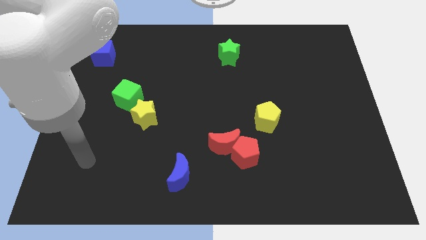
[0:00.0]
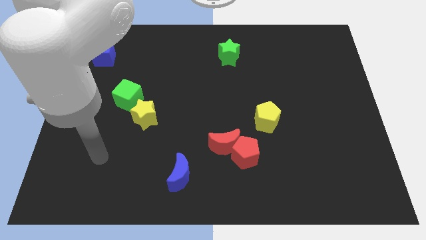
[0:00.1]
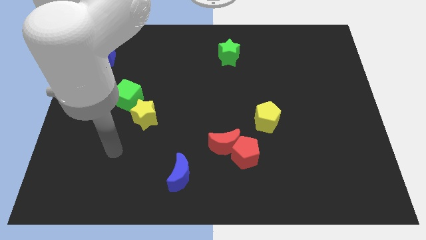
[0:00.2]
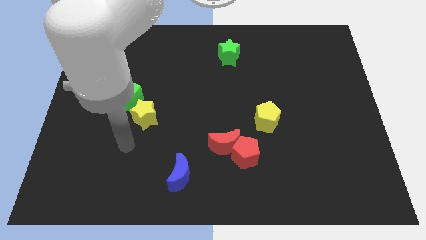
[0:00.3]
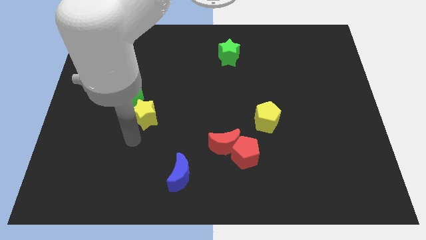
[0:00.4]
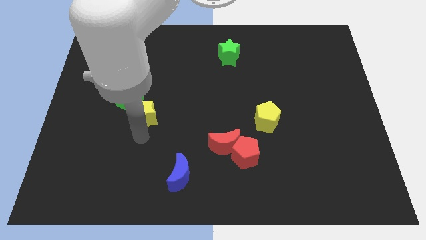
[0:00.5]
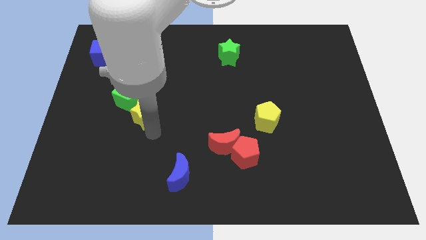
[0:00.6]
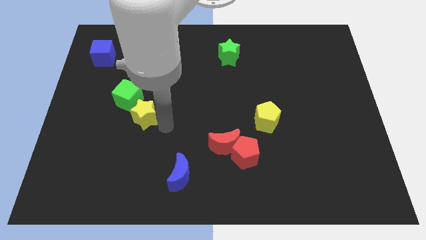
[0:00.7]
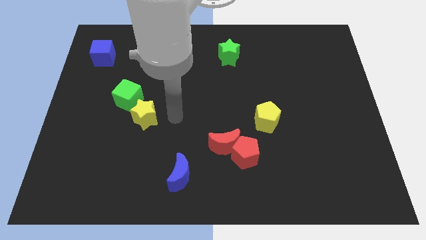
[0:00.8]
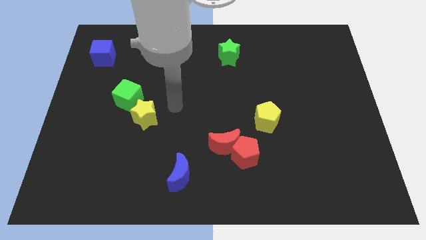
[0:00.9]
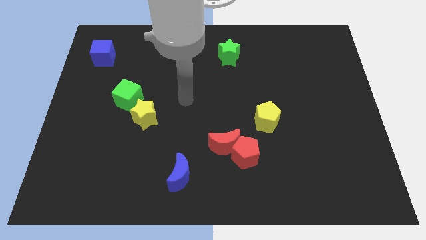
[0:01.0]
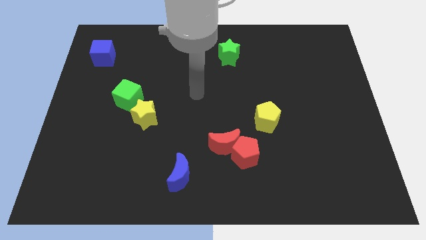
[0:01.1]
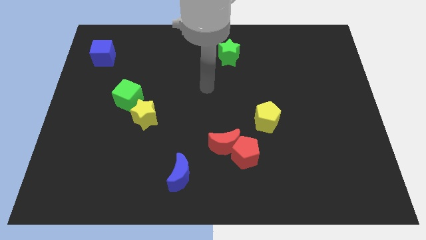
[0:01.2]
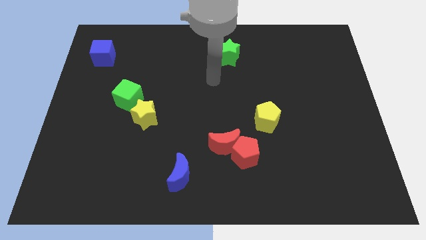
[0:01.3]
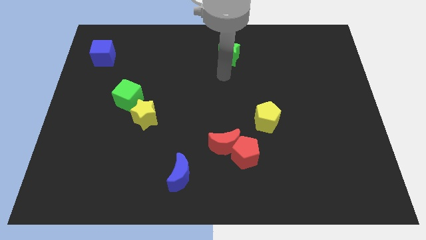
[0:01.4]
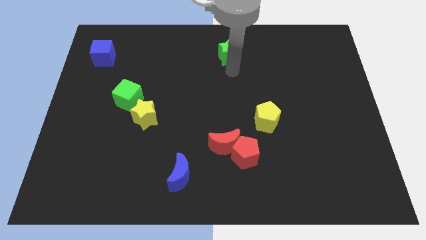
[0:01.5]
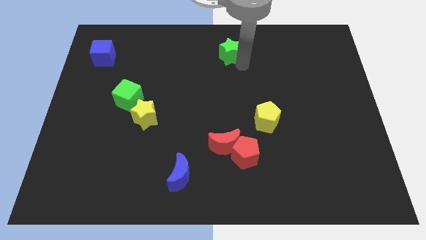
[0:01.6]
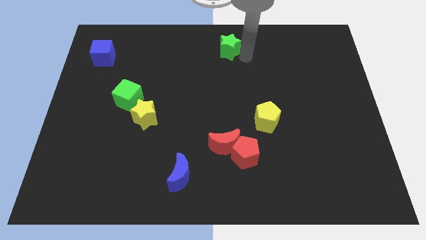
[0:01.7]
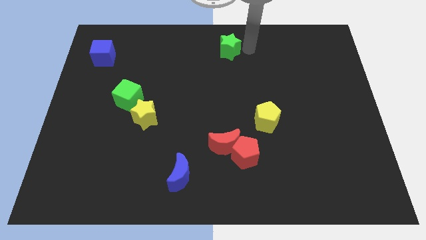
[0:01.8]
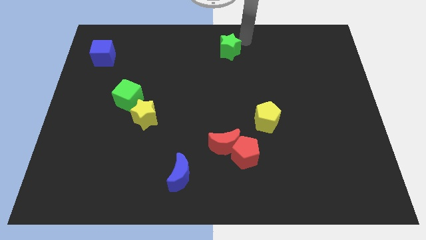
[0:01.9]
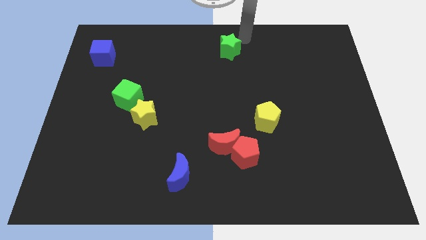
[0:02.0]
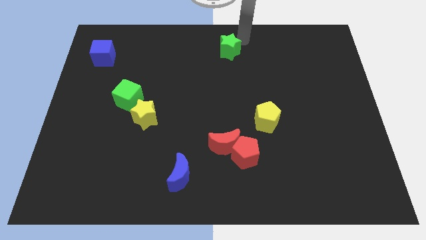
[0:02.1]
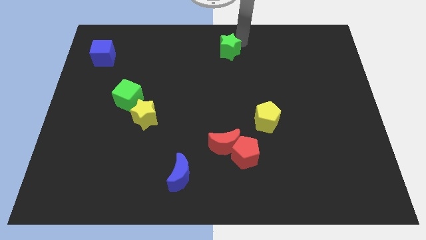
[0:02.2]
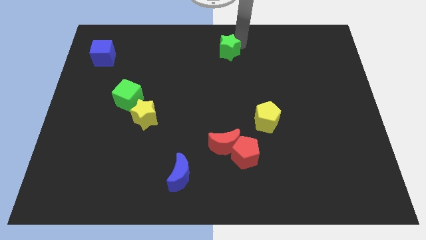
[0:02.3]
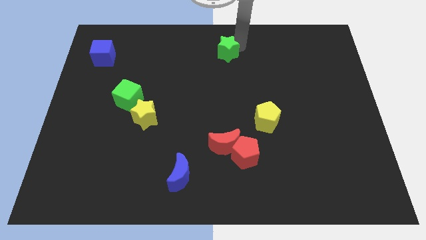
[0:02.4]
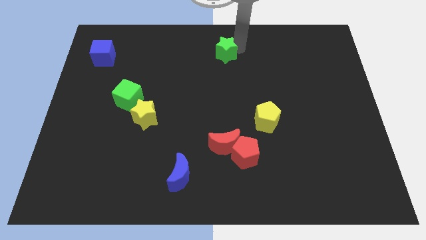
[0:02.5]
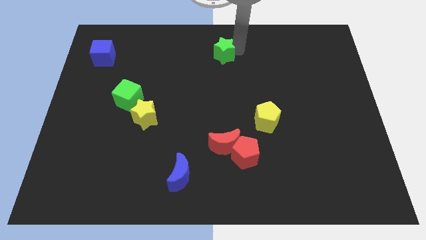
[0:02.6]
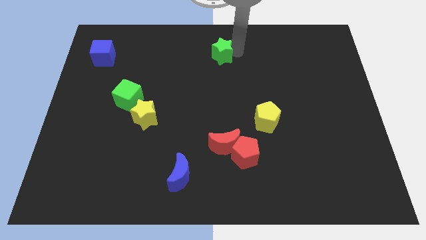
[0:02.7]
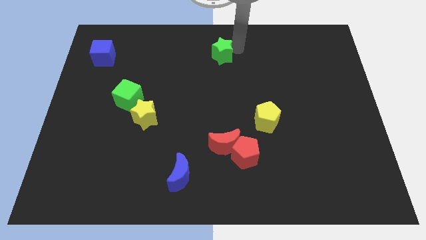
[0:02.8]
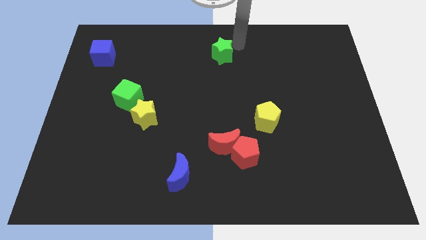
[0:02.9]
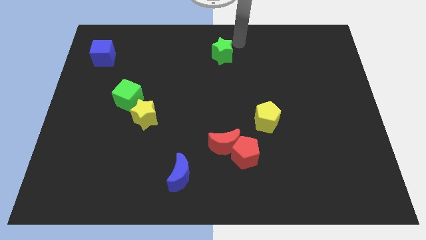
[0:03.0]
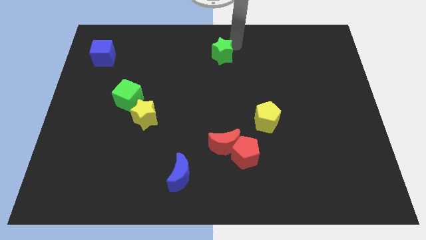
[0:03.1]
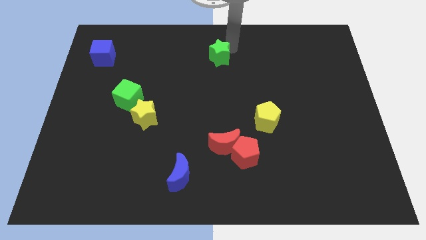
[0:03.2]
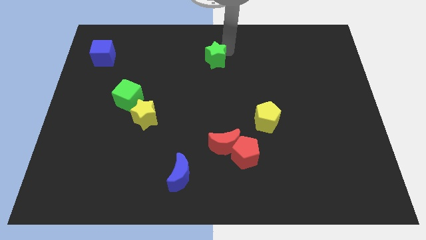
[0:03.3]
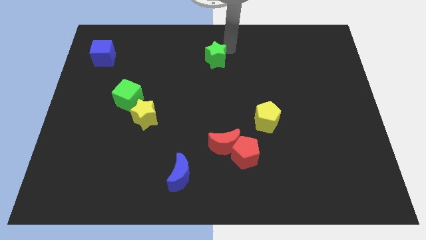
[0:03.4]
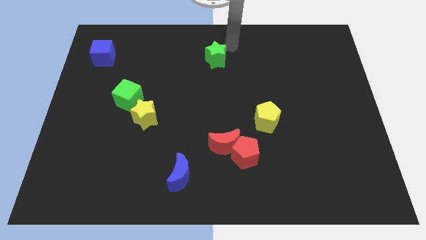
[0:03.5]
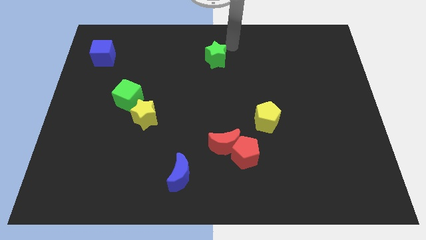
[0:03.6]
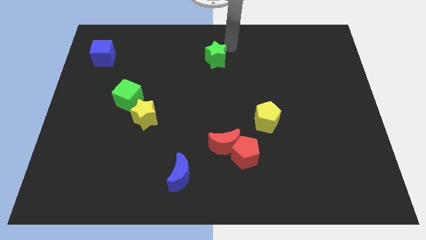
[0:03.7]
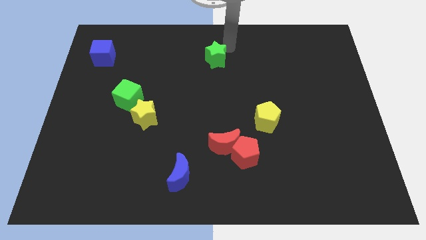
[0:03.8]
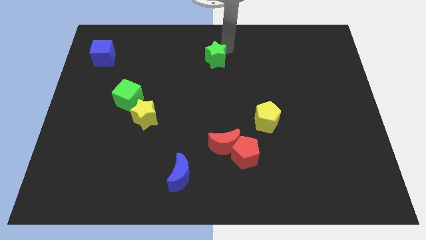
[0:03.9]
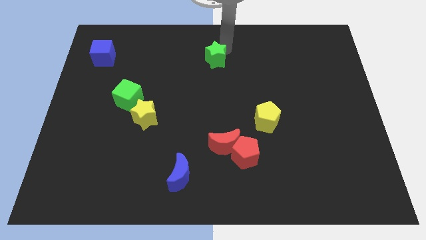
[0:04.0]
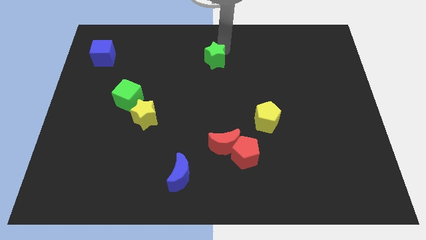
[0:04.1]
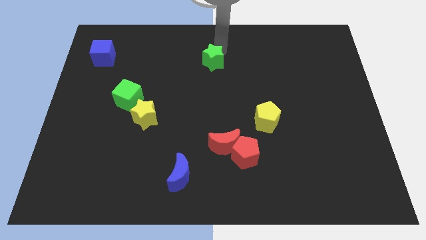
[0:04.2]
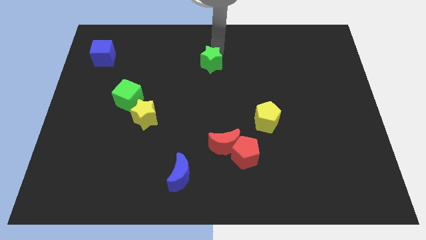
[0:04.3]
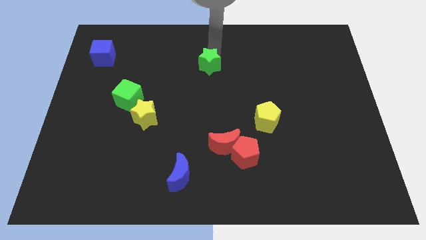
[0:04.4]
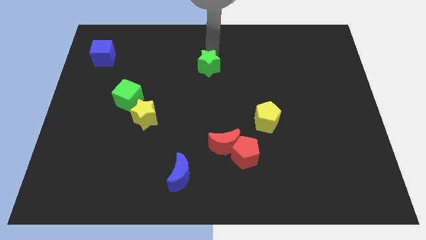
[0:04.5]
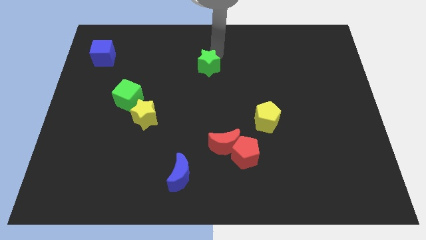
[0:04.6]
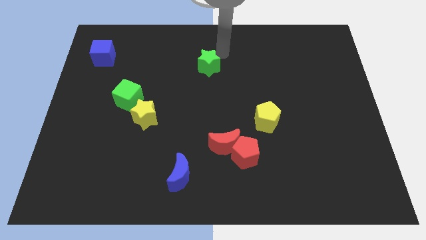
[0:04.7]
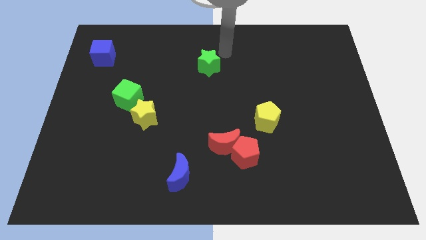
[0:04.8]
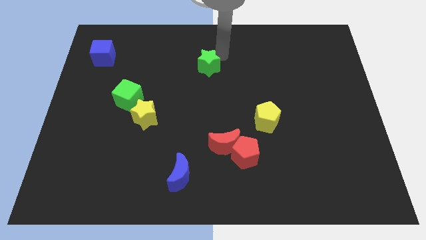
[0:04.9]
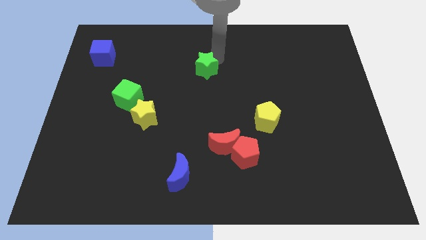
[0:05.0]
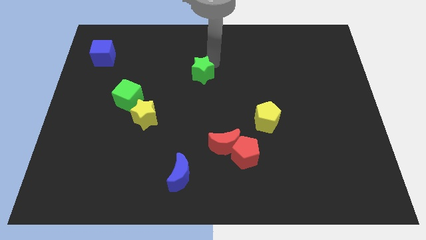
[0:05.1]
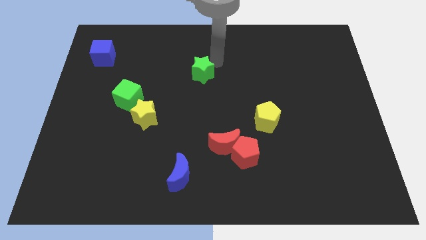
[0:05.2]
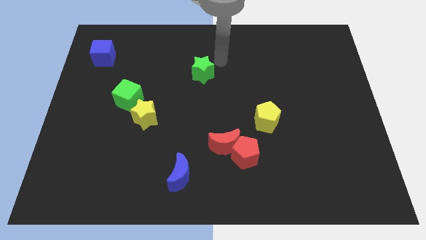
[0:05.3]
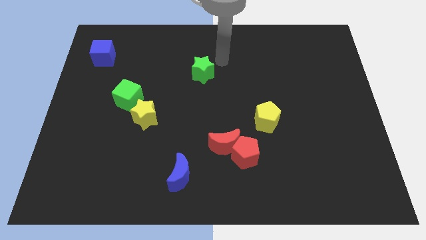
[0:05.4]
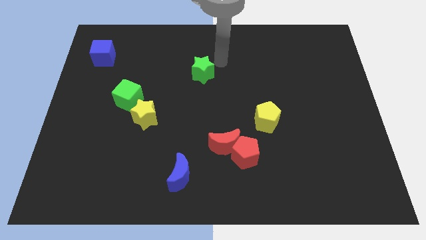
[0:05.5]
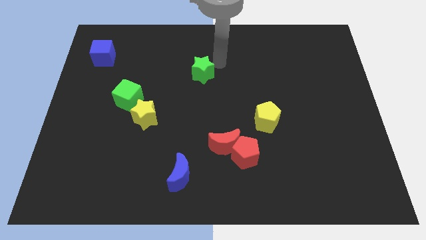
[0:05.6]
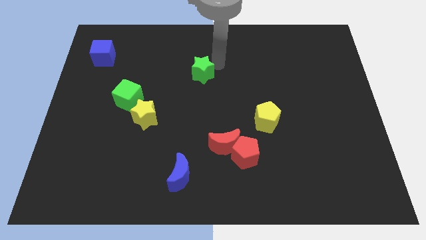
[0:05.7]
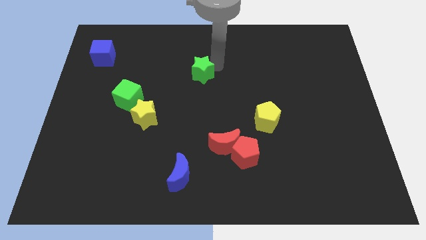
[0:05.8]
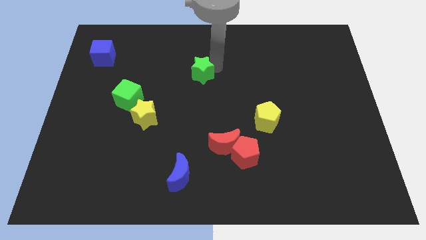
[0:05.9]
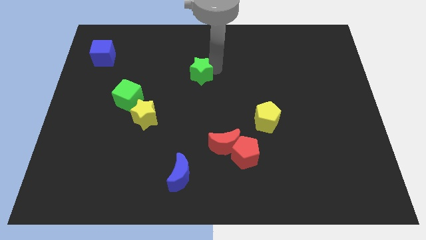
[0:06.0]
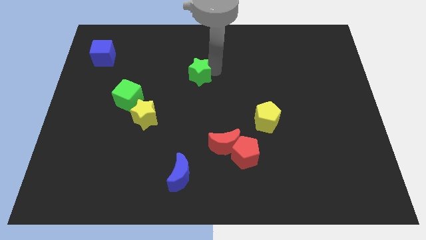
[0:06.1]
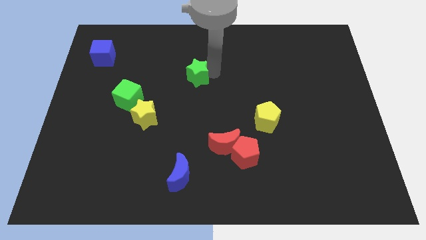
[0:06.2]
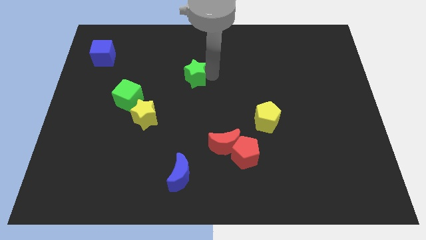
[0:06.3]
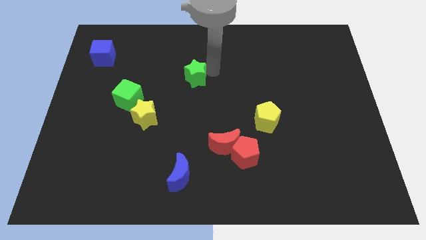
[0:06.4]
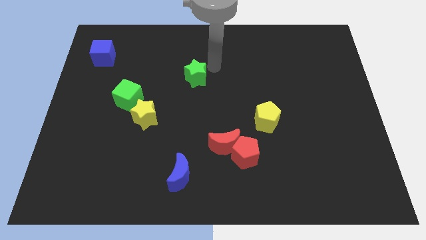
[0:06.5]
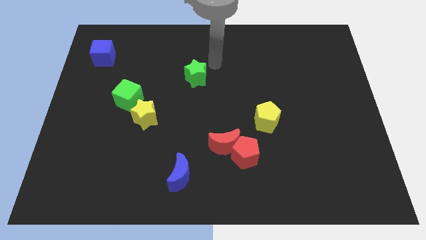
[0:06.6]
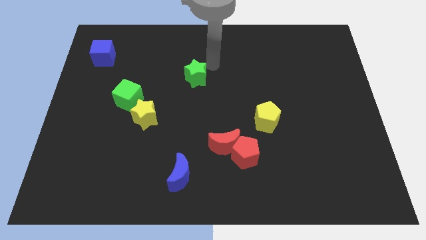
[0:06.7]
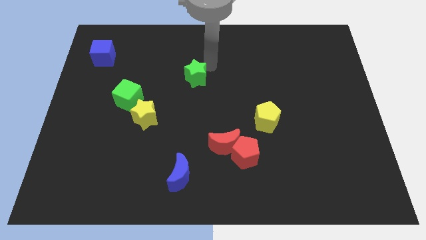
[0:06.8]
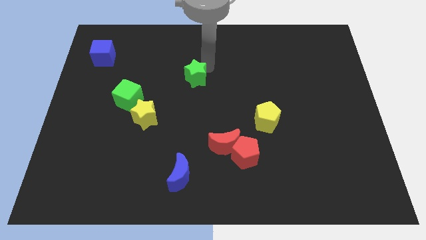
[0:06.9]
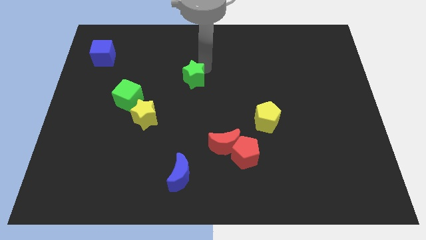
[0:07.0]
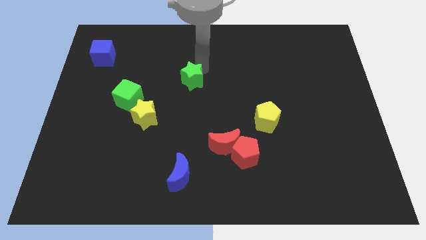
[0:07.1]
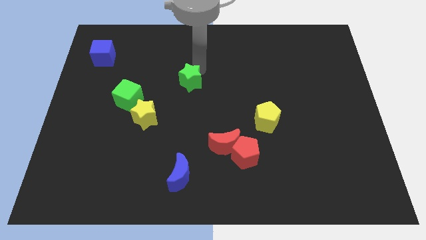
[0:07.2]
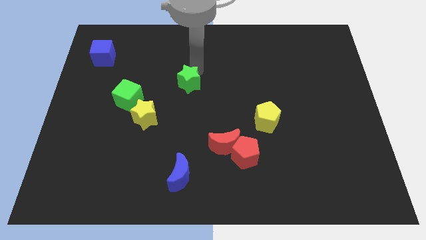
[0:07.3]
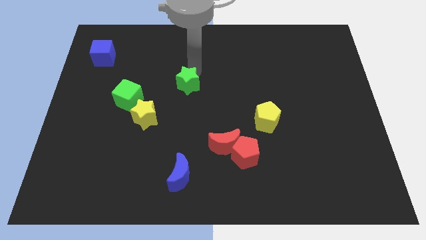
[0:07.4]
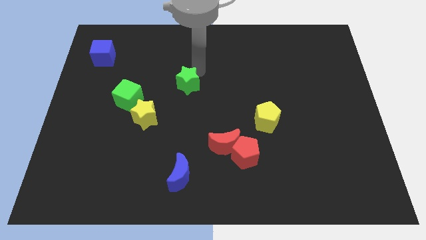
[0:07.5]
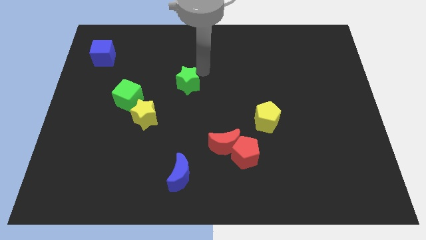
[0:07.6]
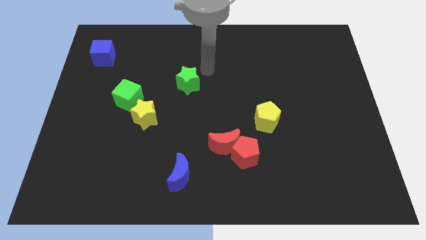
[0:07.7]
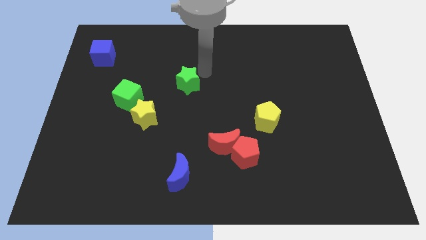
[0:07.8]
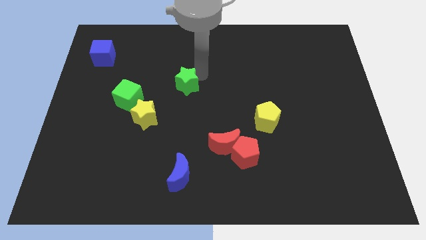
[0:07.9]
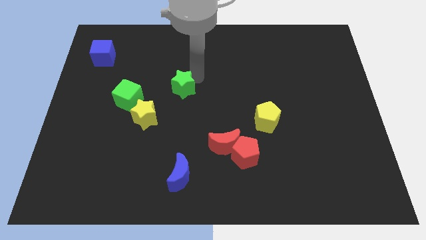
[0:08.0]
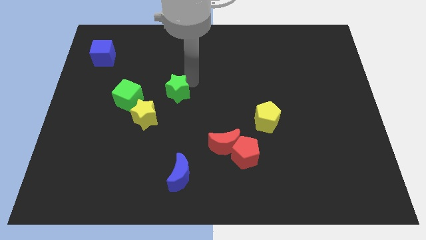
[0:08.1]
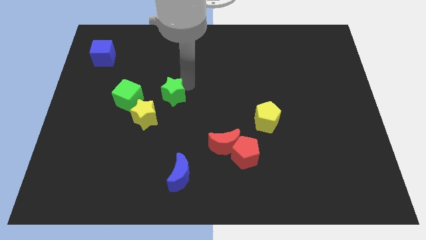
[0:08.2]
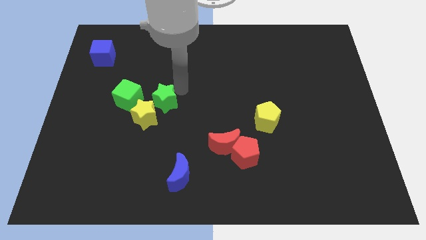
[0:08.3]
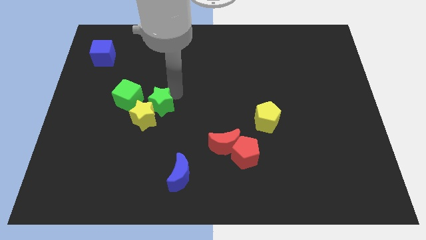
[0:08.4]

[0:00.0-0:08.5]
put the green star next to the yellow star
